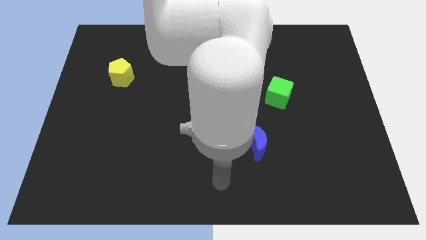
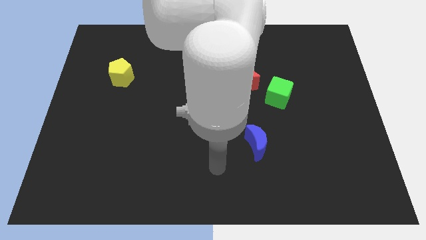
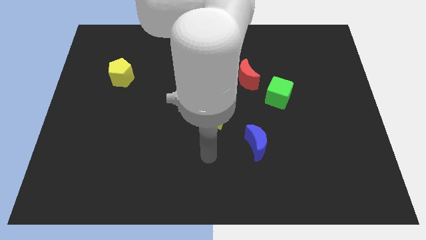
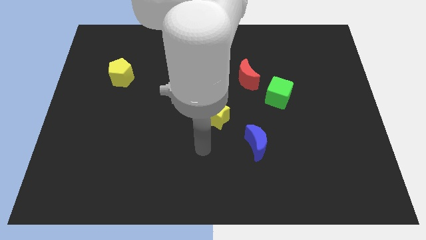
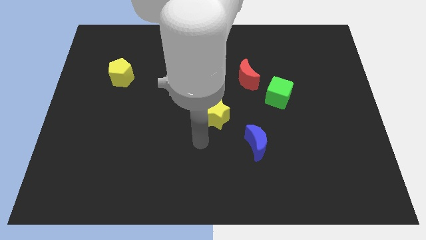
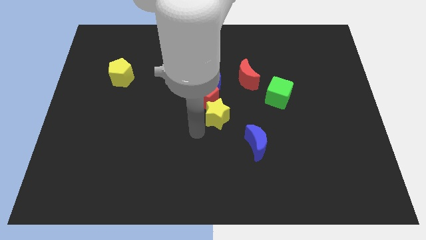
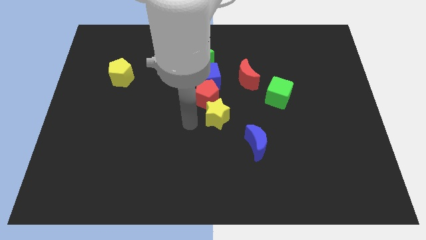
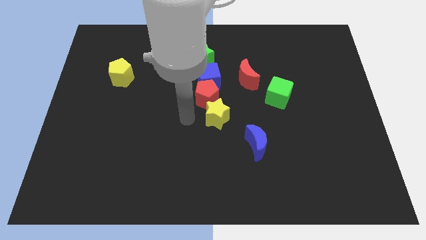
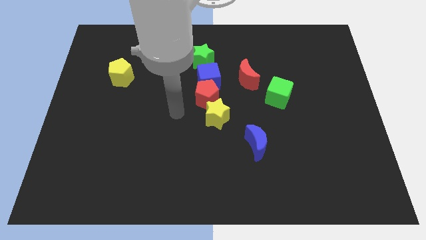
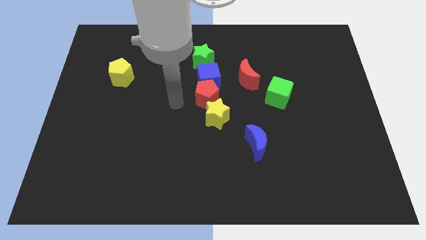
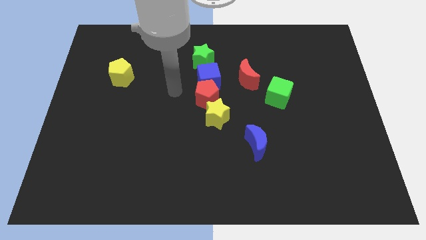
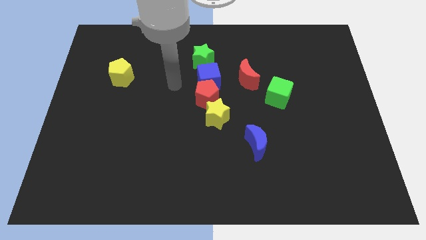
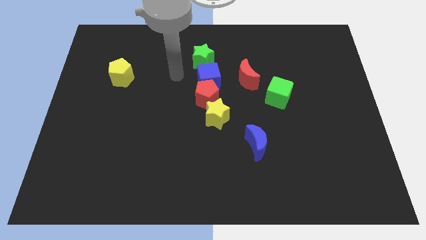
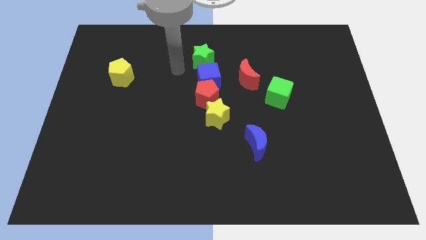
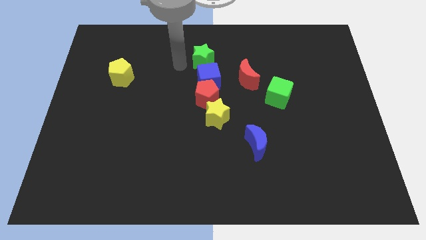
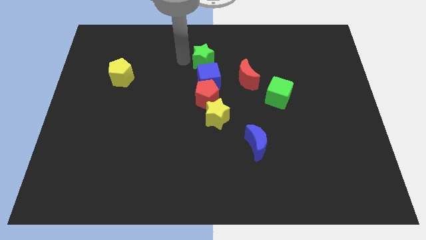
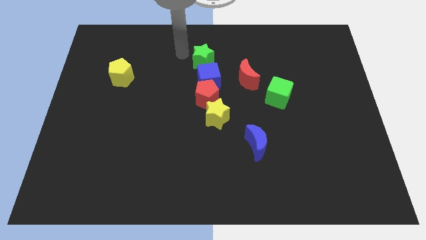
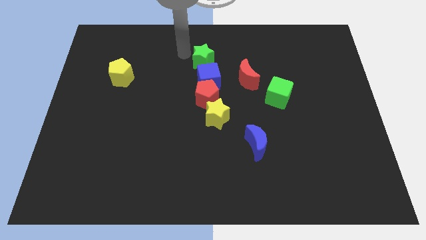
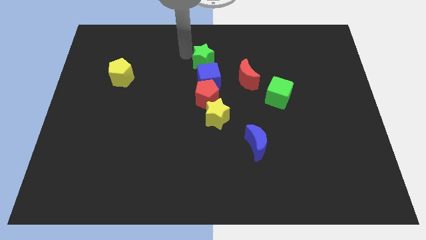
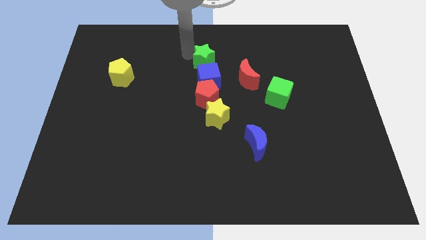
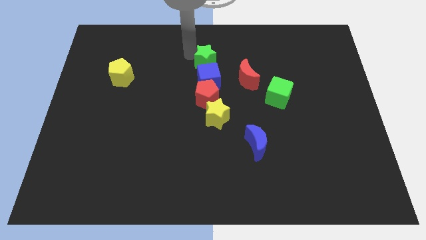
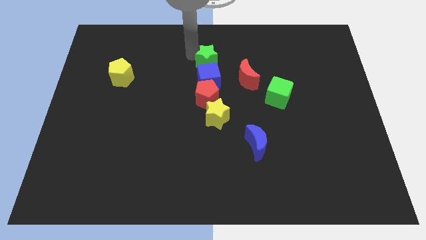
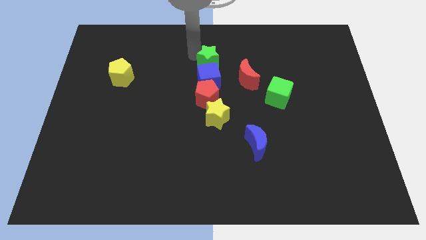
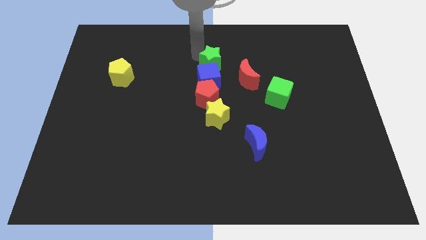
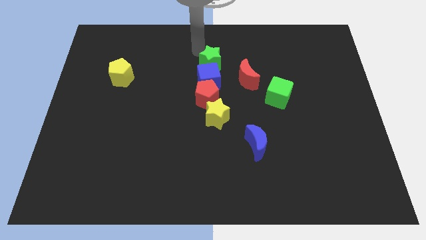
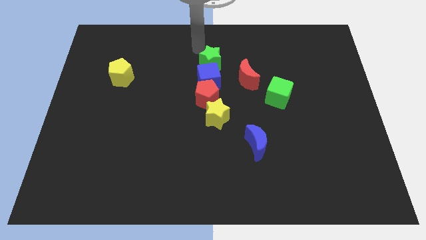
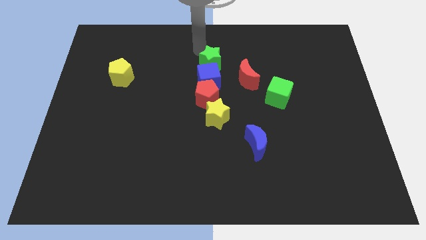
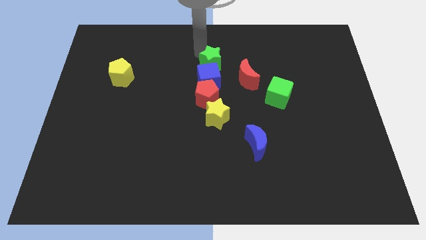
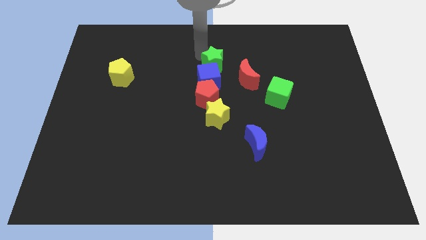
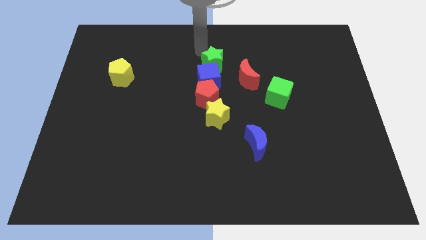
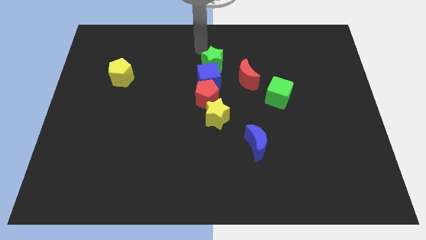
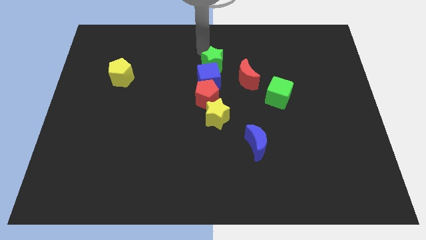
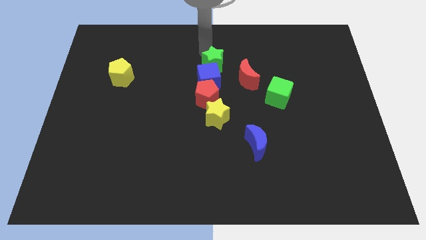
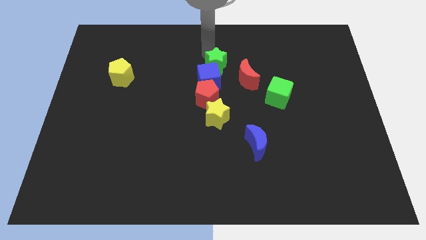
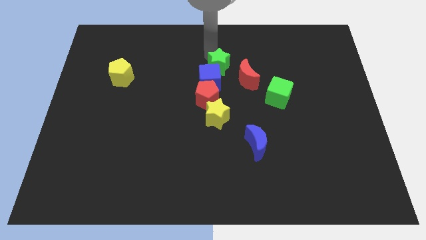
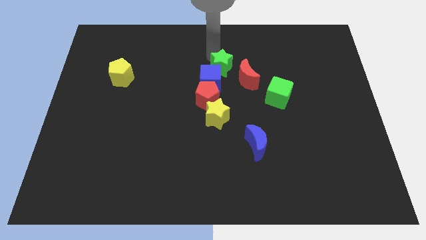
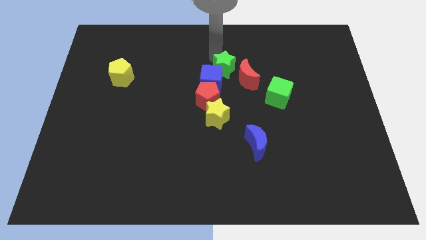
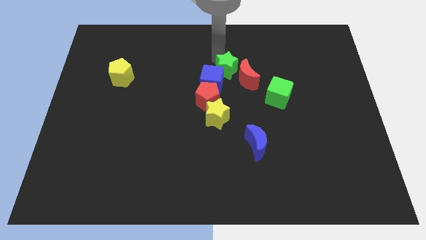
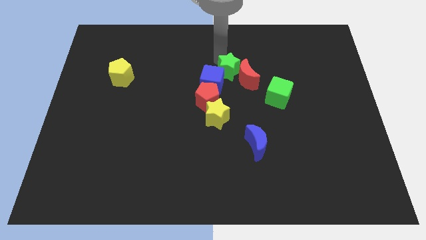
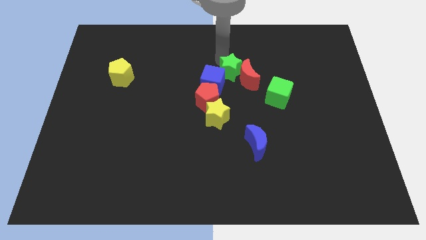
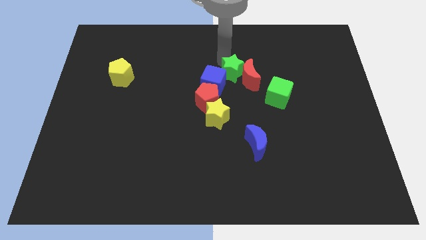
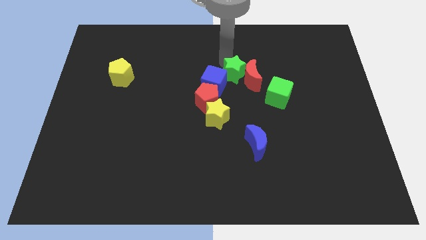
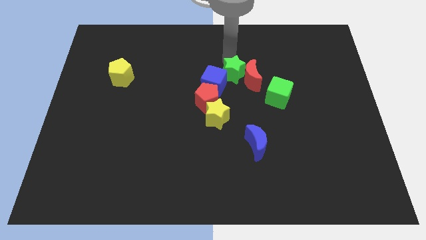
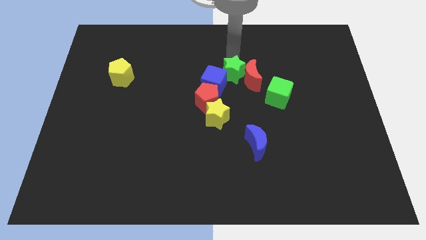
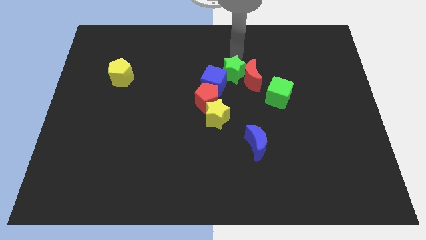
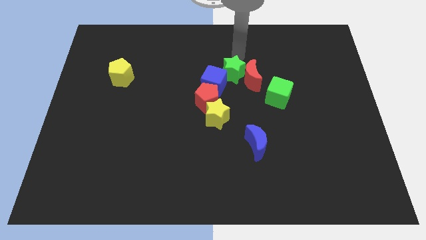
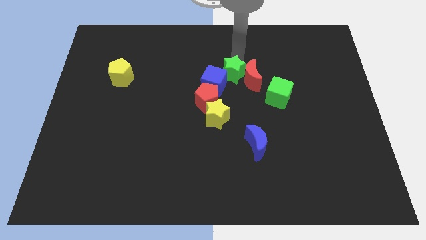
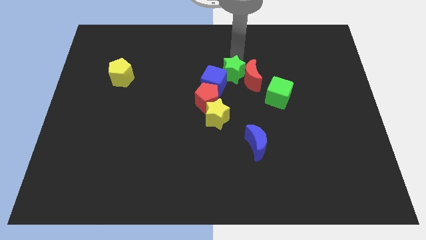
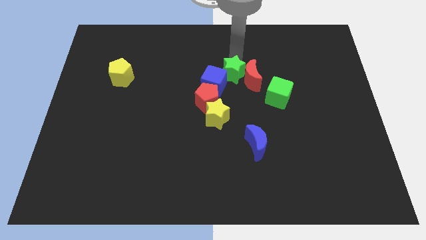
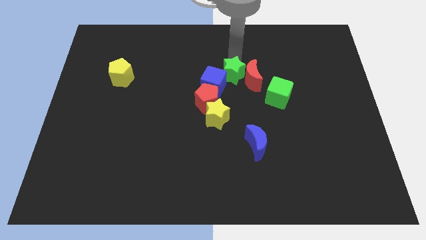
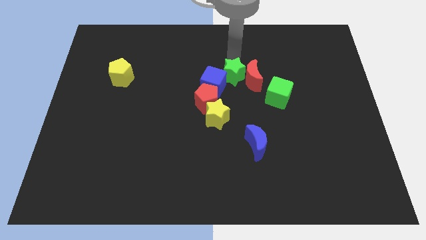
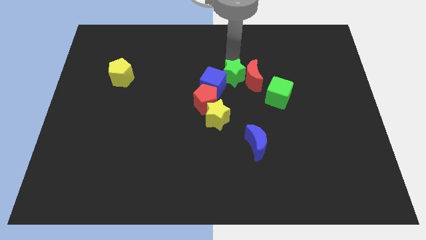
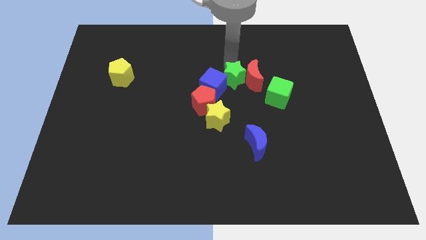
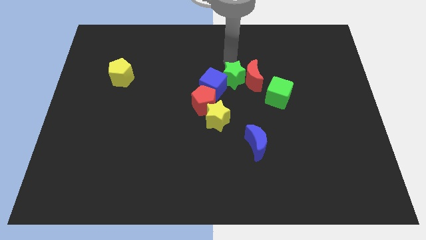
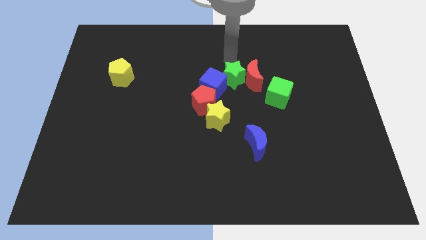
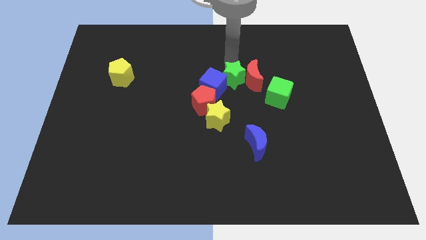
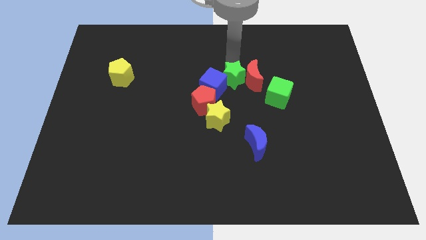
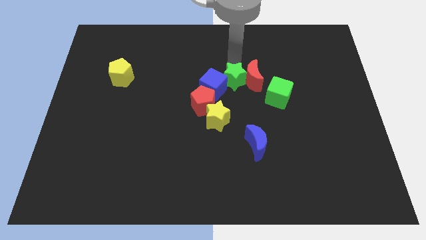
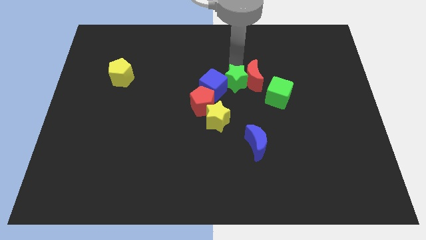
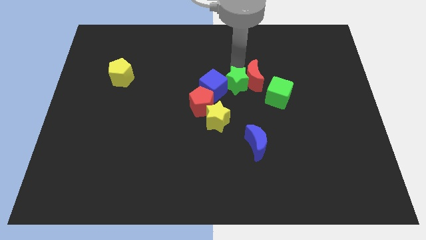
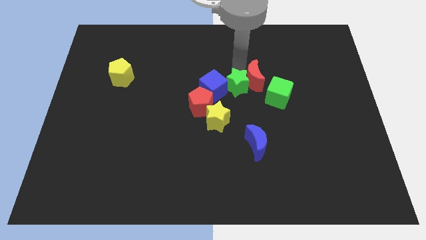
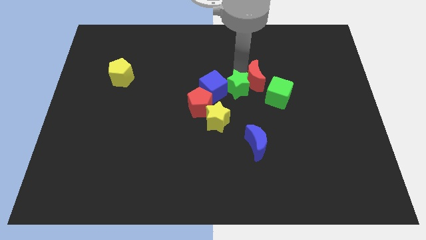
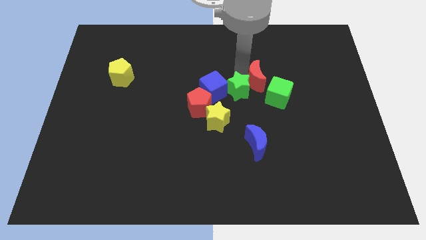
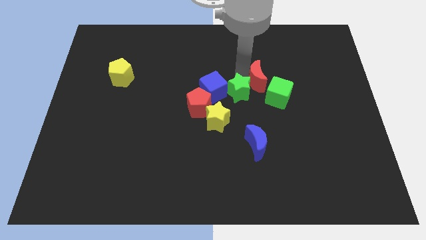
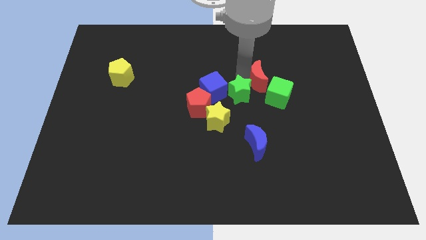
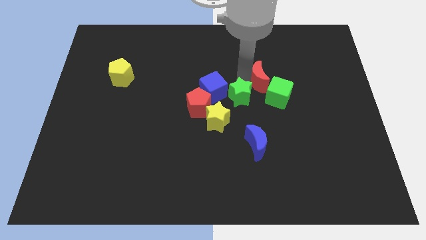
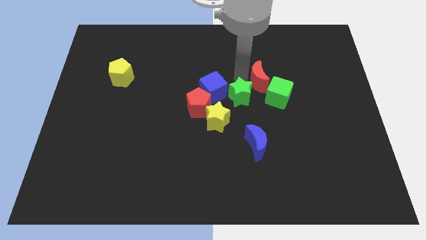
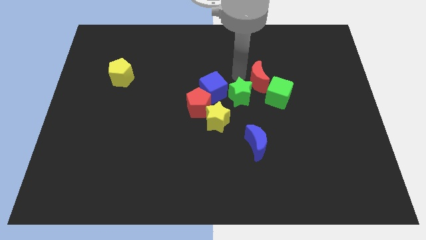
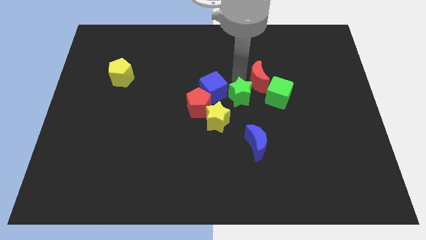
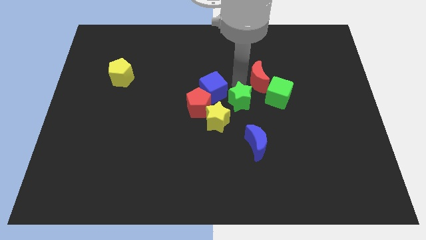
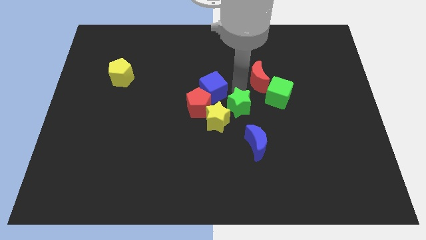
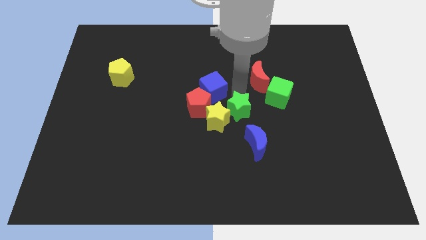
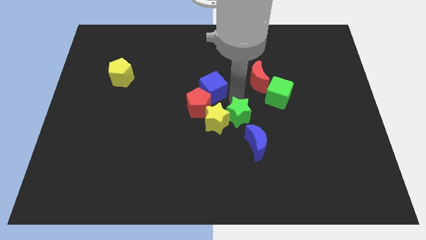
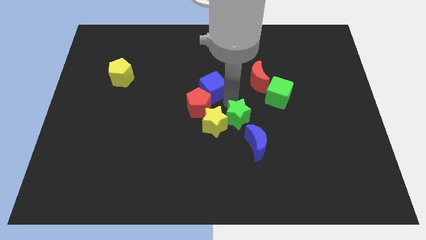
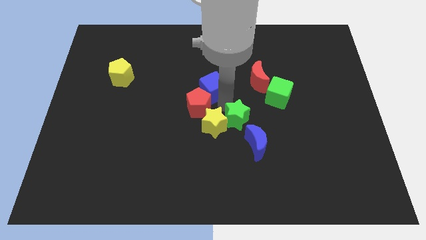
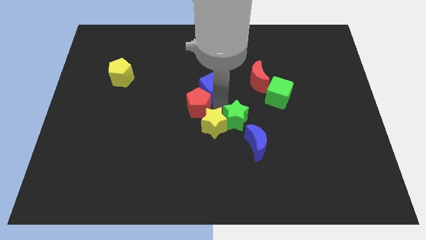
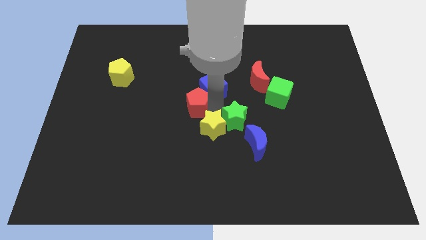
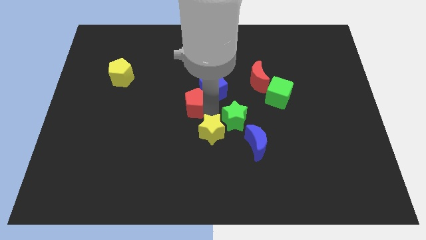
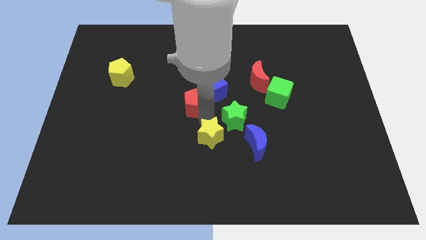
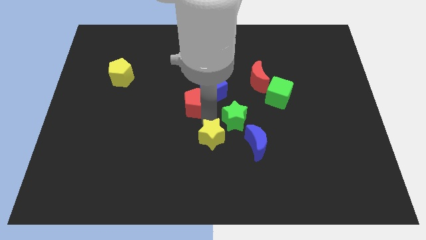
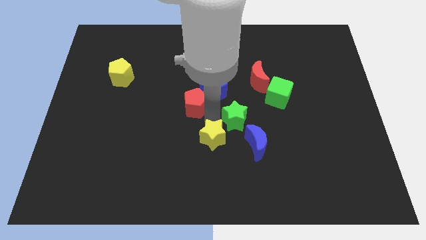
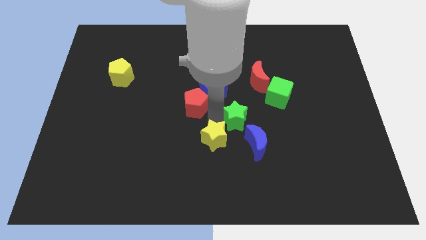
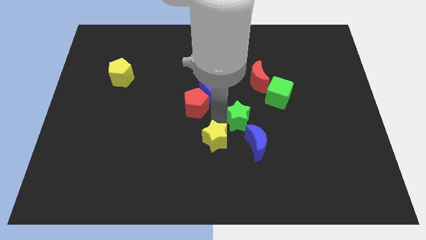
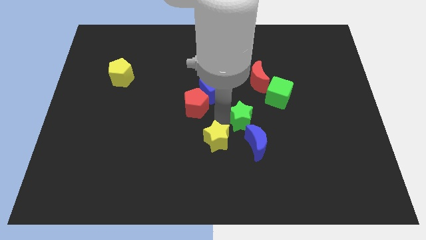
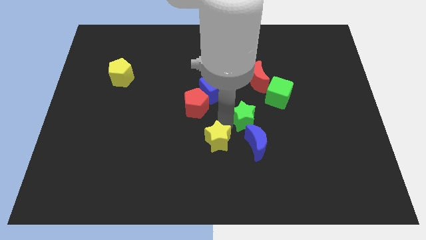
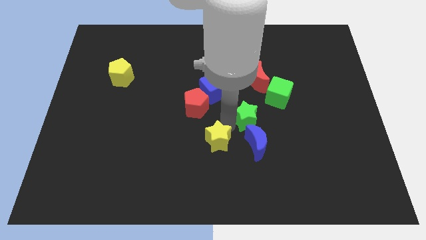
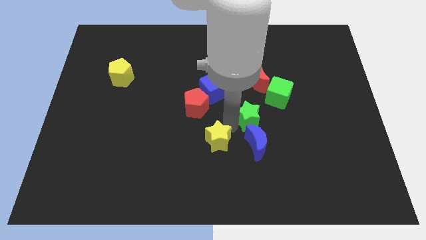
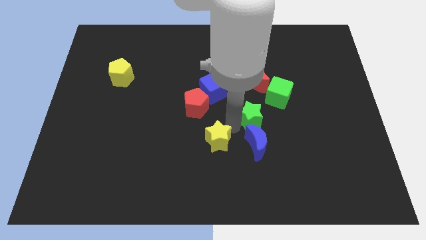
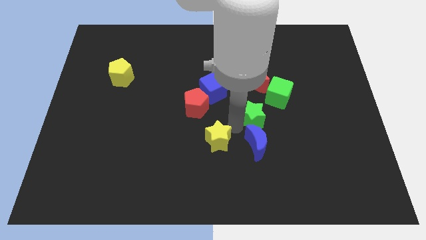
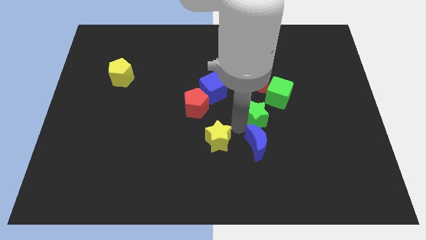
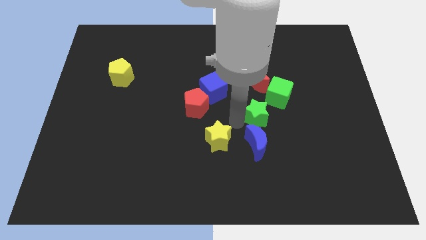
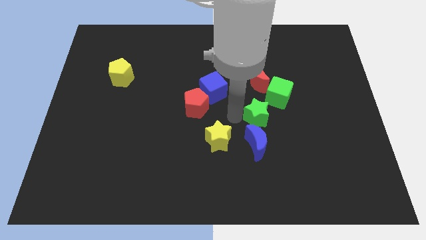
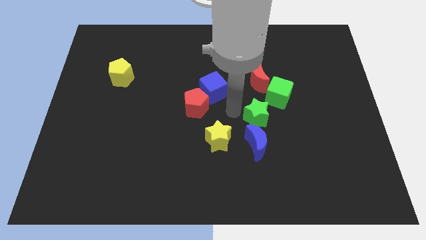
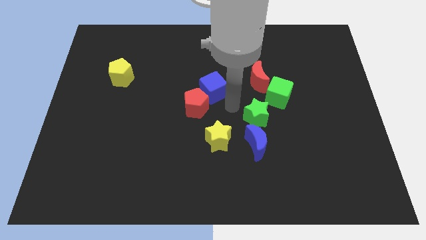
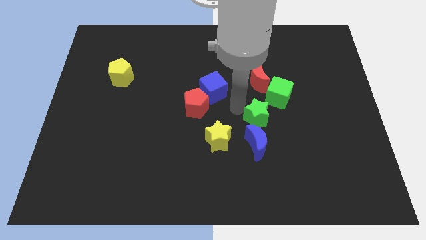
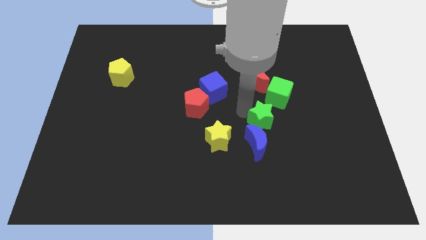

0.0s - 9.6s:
move the green star to the bottom side of the green cube
